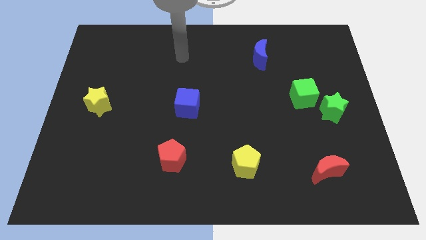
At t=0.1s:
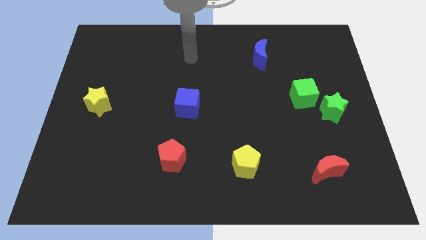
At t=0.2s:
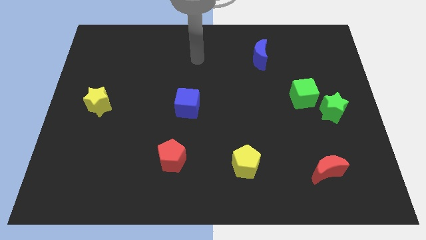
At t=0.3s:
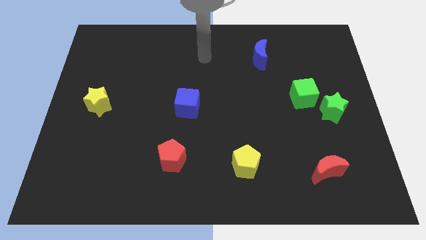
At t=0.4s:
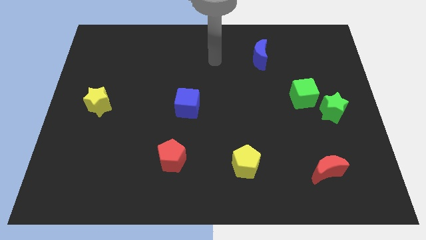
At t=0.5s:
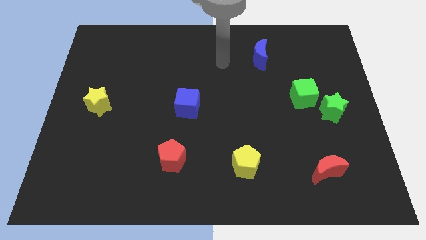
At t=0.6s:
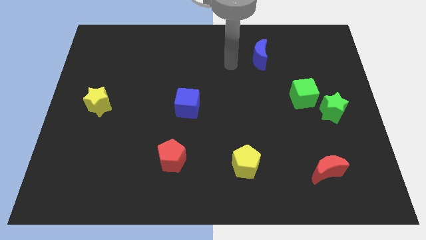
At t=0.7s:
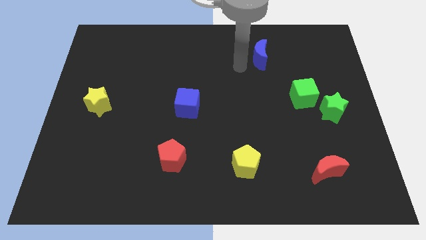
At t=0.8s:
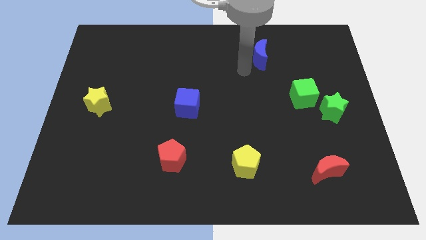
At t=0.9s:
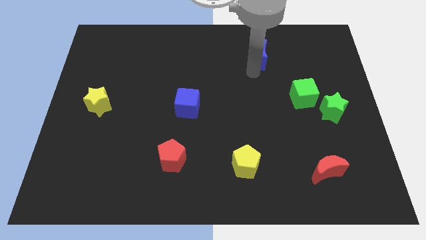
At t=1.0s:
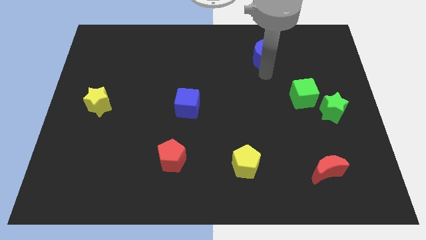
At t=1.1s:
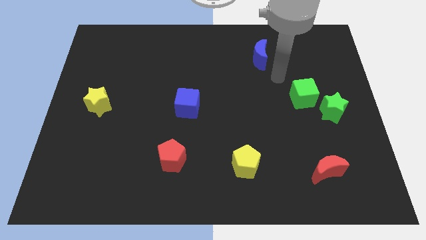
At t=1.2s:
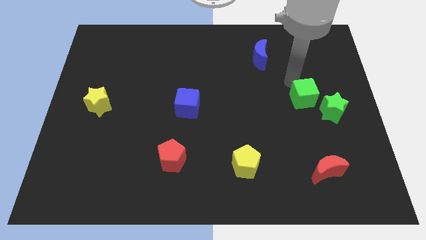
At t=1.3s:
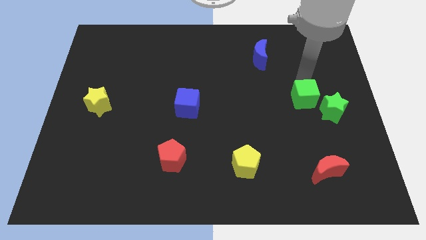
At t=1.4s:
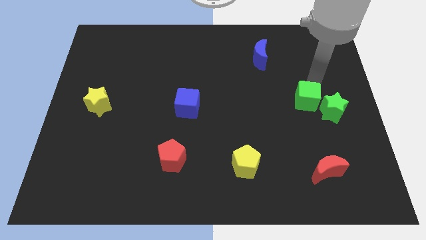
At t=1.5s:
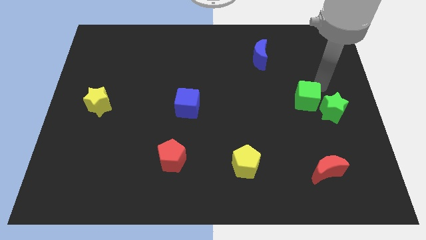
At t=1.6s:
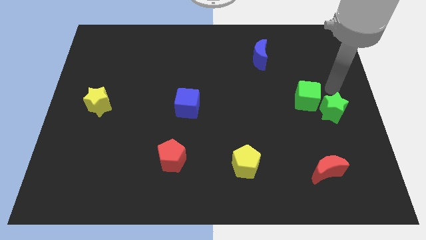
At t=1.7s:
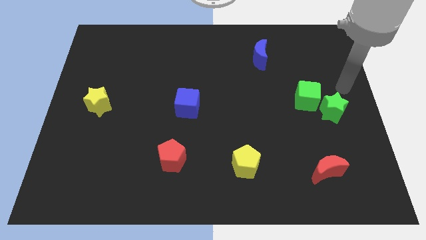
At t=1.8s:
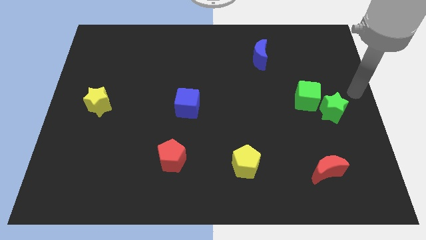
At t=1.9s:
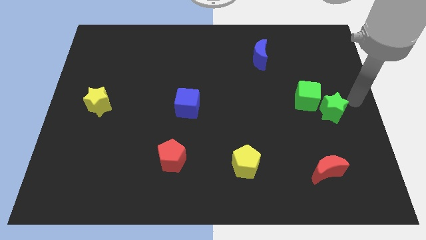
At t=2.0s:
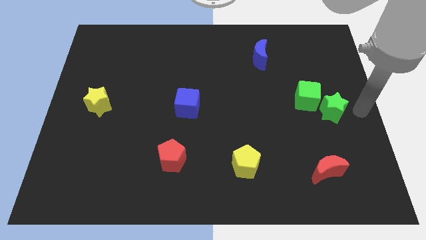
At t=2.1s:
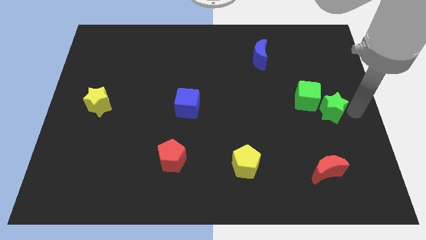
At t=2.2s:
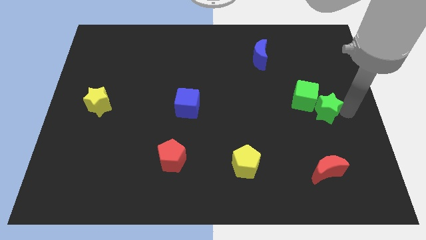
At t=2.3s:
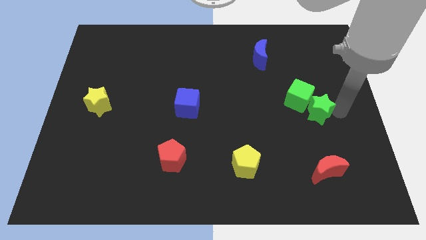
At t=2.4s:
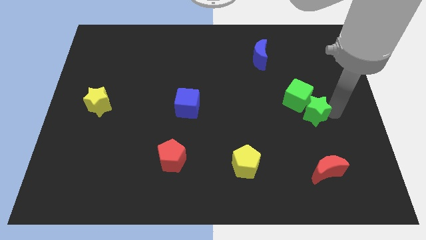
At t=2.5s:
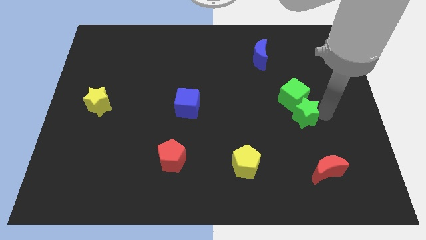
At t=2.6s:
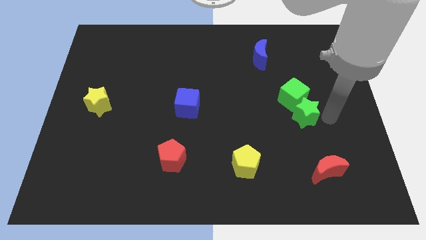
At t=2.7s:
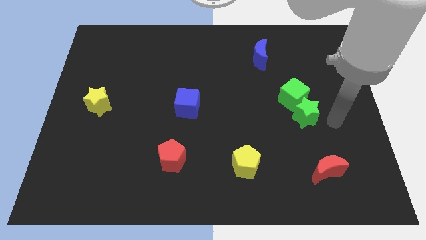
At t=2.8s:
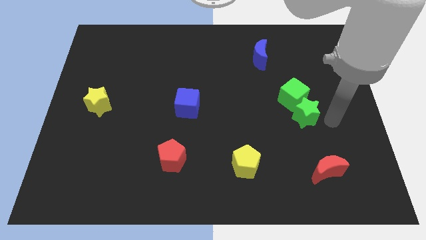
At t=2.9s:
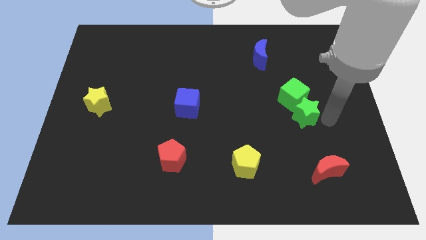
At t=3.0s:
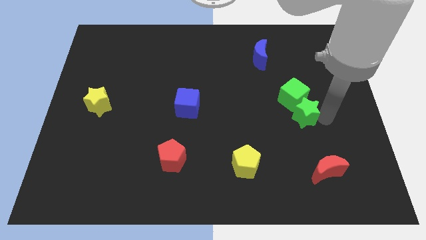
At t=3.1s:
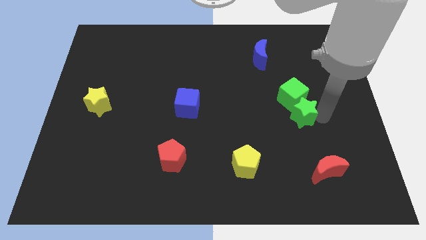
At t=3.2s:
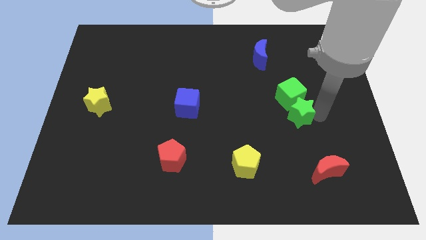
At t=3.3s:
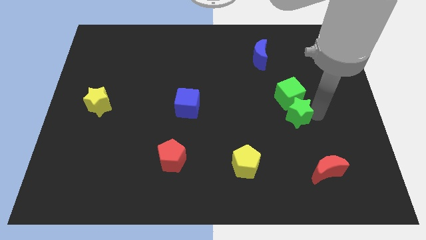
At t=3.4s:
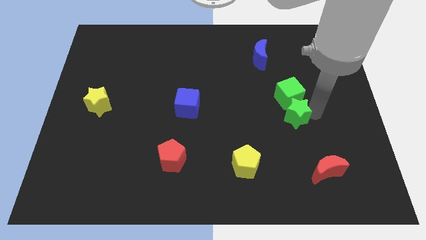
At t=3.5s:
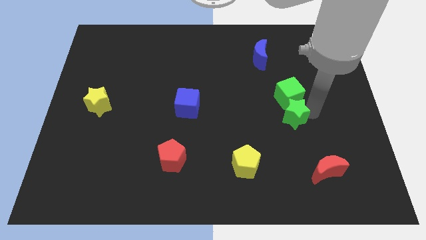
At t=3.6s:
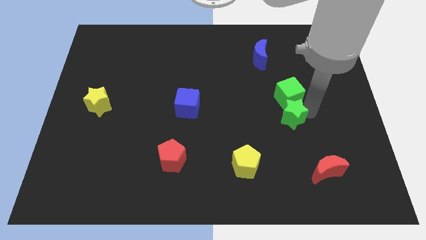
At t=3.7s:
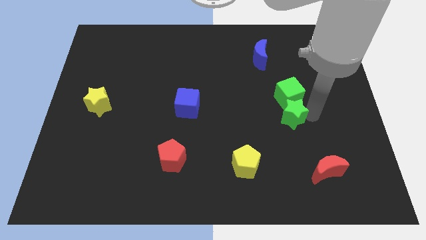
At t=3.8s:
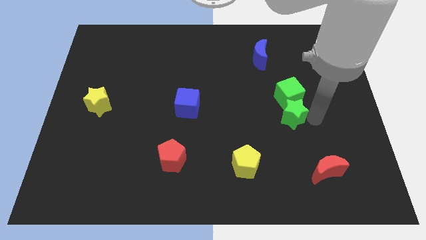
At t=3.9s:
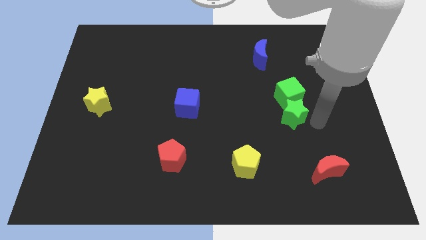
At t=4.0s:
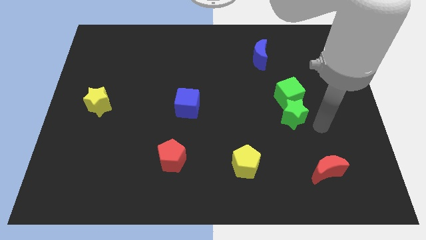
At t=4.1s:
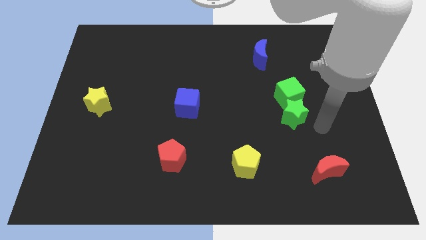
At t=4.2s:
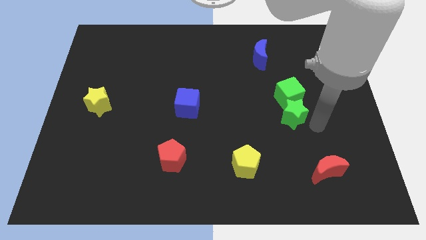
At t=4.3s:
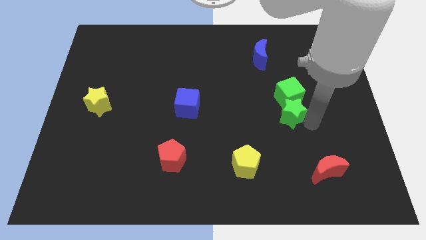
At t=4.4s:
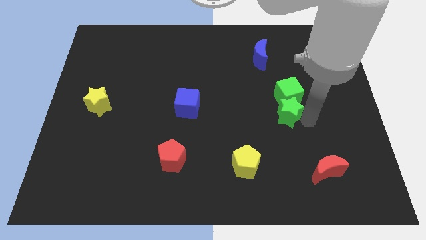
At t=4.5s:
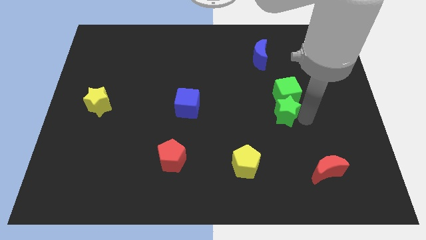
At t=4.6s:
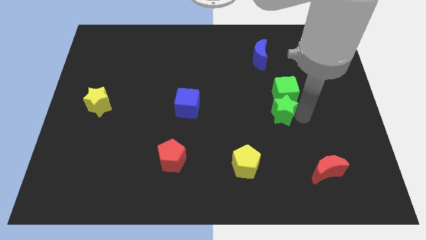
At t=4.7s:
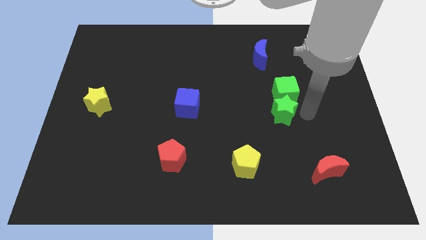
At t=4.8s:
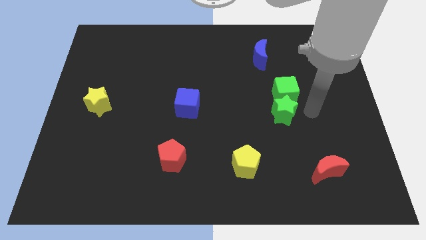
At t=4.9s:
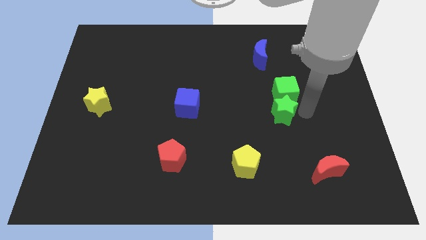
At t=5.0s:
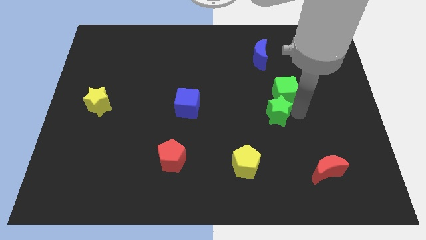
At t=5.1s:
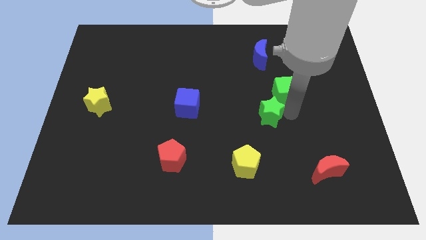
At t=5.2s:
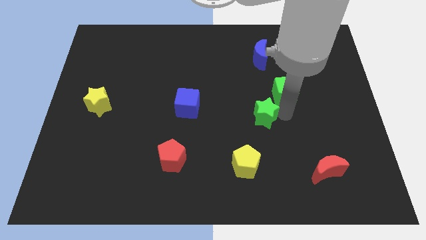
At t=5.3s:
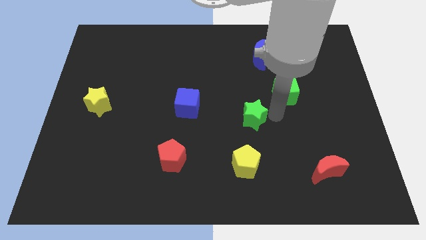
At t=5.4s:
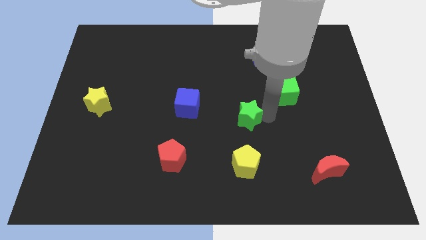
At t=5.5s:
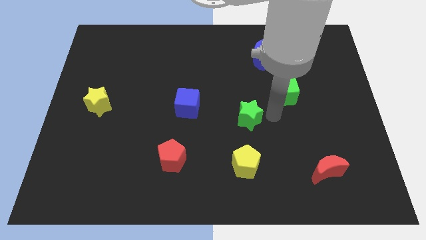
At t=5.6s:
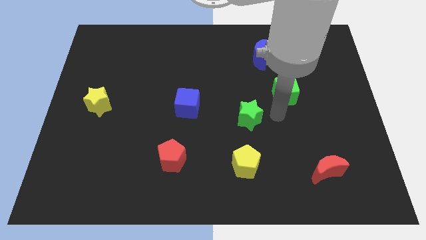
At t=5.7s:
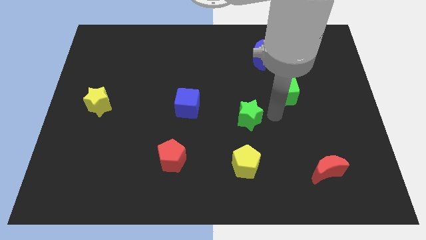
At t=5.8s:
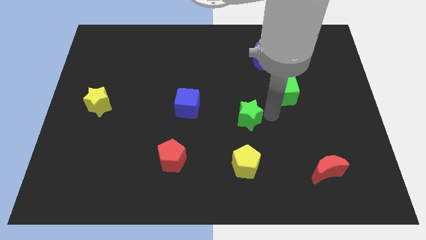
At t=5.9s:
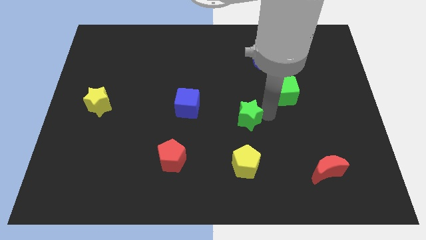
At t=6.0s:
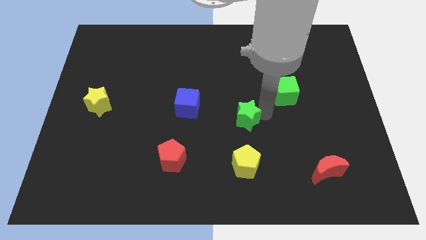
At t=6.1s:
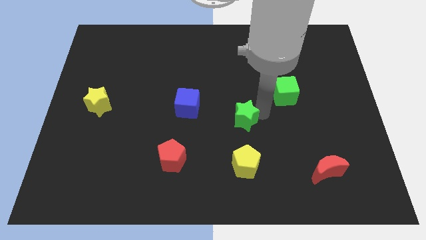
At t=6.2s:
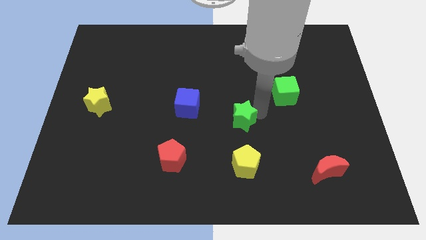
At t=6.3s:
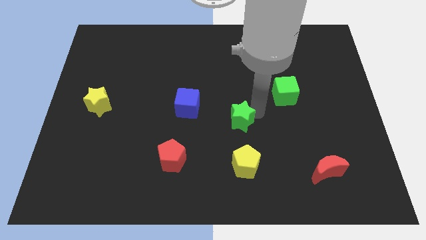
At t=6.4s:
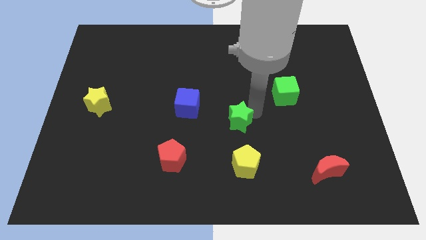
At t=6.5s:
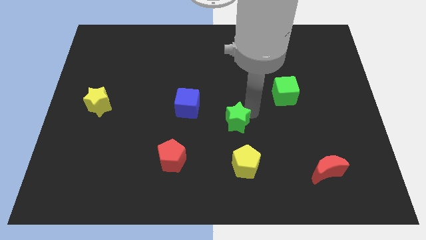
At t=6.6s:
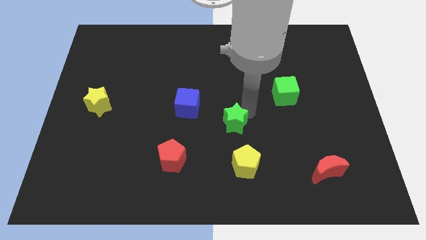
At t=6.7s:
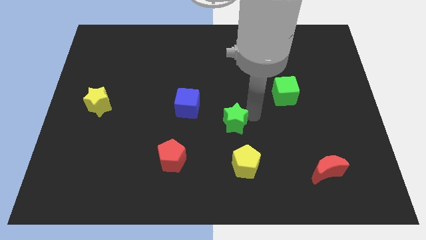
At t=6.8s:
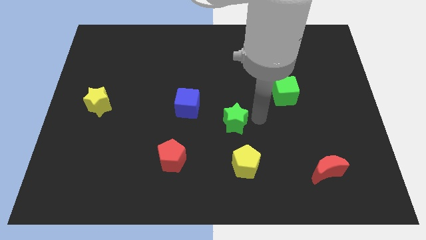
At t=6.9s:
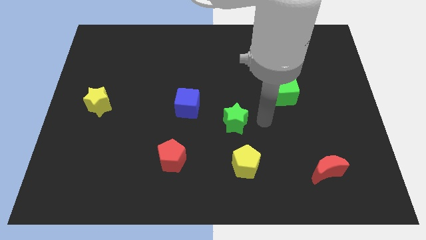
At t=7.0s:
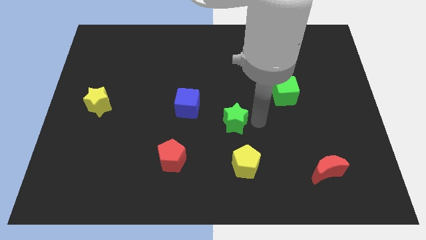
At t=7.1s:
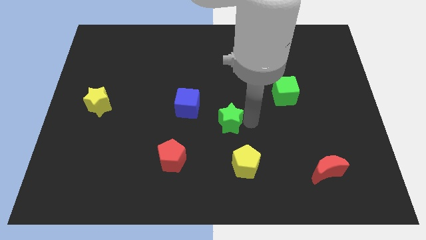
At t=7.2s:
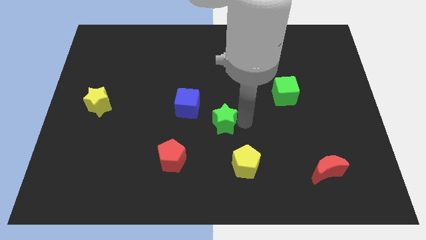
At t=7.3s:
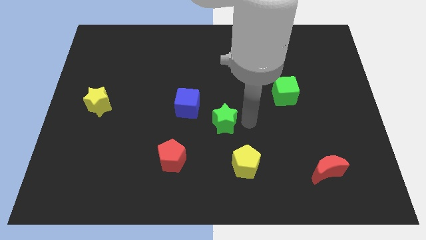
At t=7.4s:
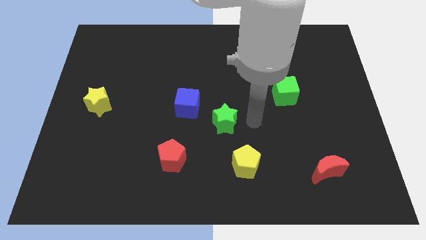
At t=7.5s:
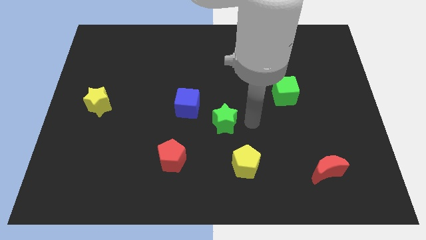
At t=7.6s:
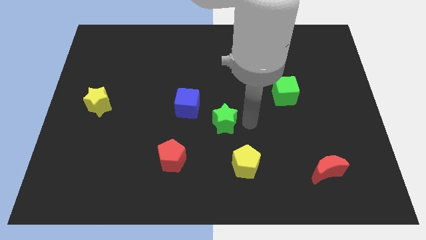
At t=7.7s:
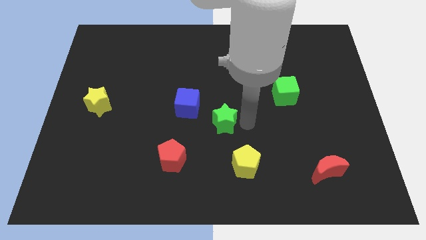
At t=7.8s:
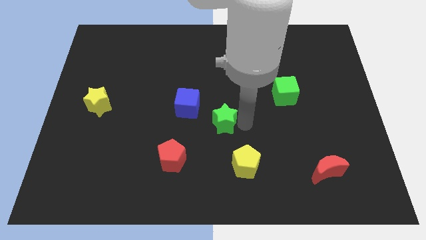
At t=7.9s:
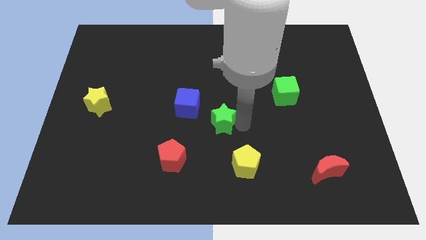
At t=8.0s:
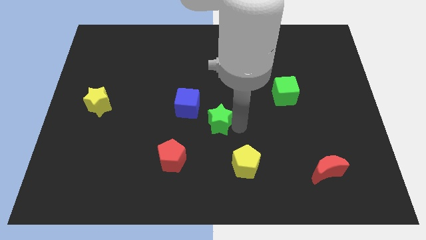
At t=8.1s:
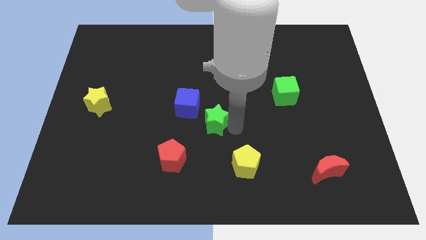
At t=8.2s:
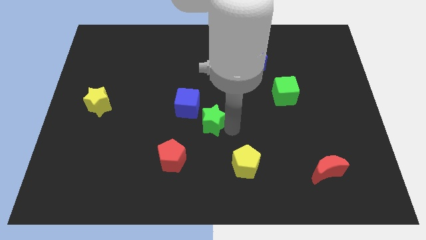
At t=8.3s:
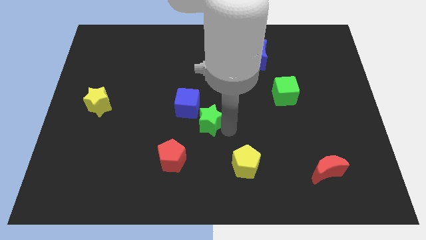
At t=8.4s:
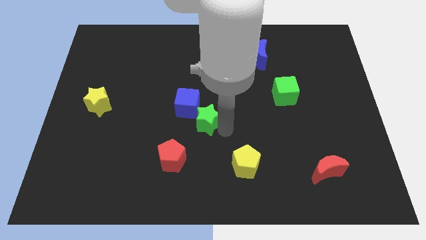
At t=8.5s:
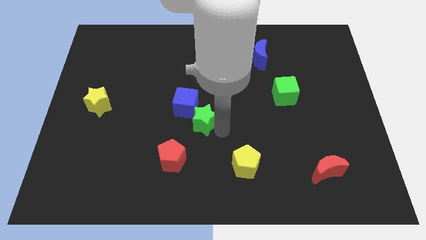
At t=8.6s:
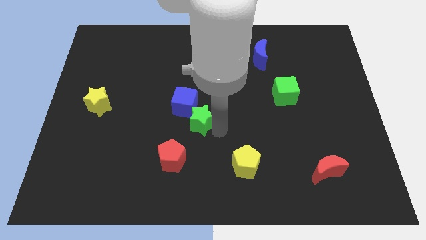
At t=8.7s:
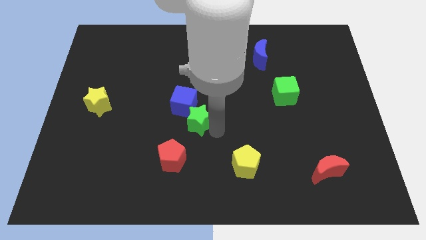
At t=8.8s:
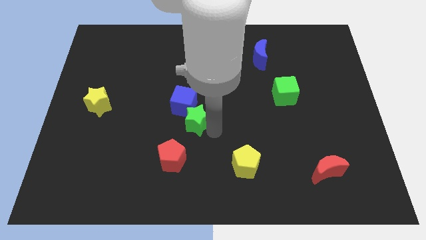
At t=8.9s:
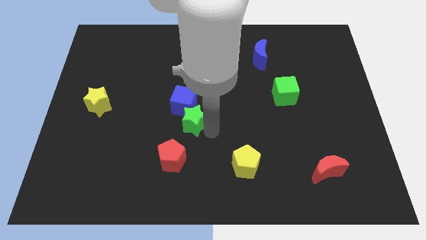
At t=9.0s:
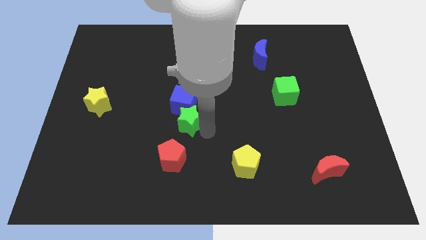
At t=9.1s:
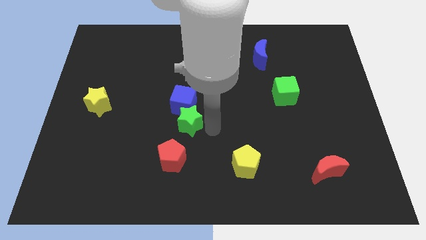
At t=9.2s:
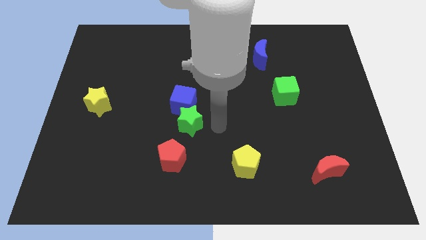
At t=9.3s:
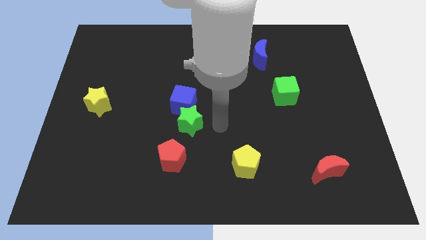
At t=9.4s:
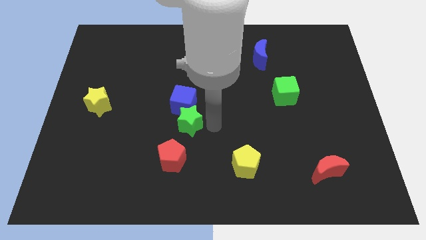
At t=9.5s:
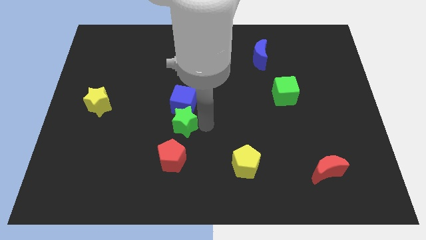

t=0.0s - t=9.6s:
move the green star to the bottom left of the blue cube
